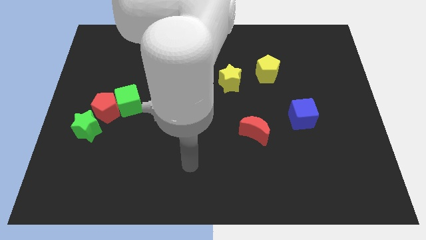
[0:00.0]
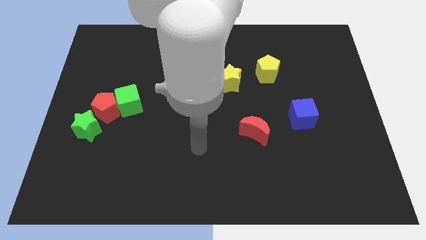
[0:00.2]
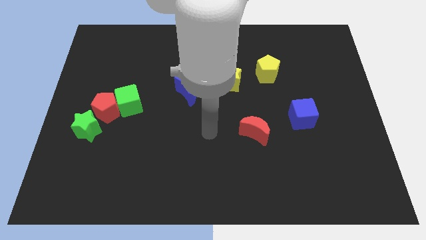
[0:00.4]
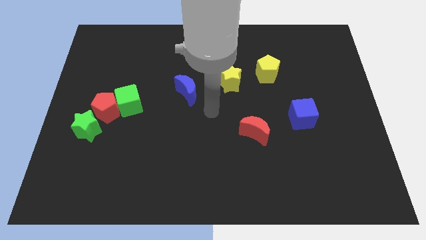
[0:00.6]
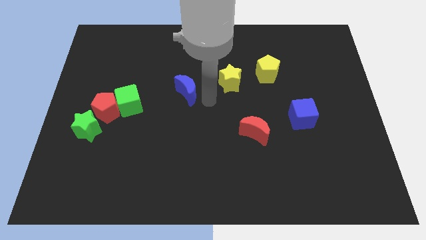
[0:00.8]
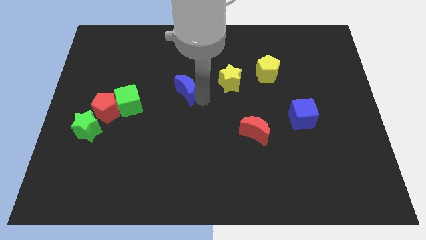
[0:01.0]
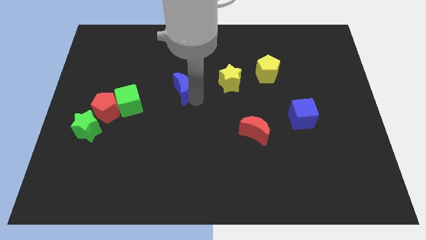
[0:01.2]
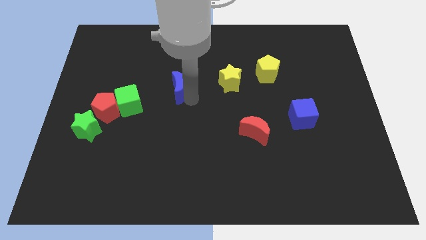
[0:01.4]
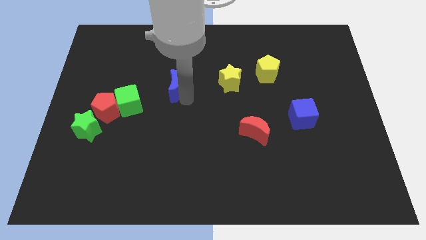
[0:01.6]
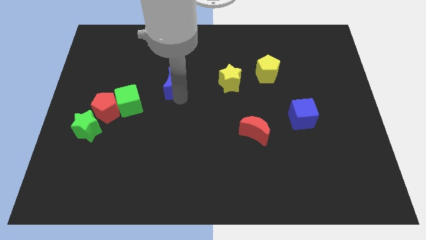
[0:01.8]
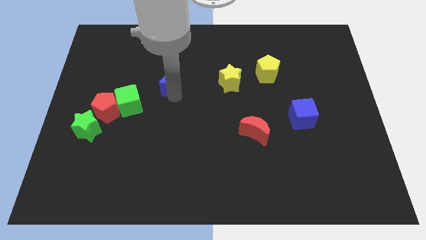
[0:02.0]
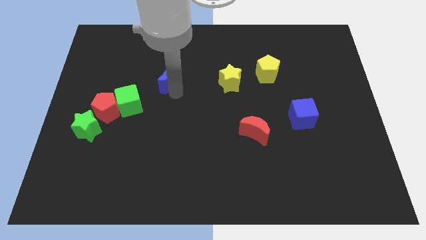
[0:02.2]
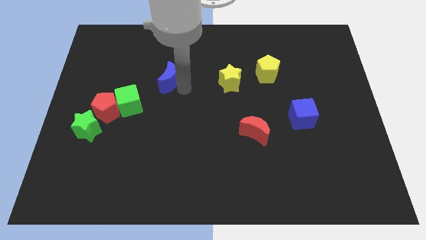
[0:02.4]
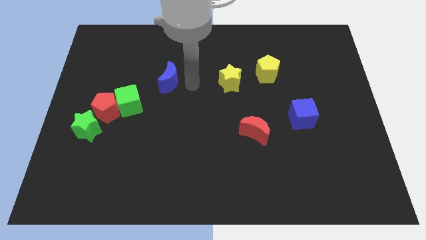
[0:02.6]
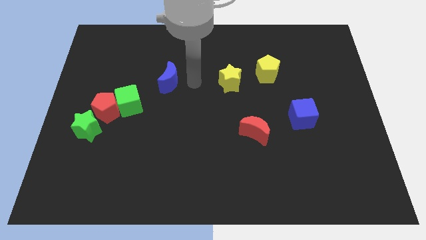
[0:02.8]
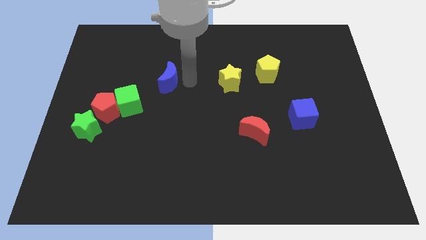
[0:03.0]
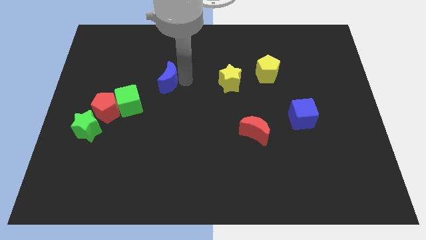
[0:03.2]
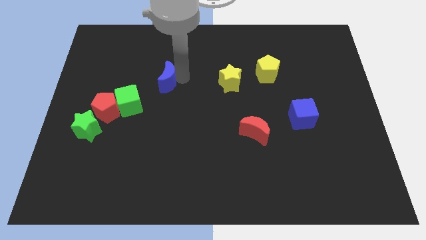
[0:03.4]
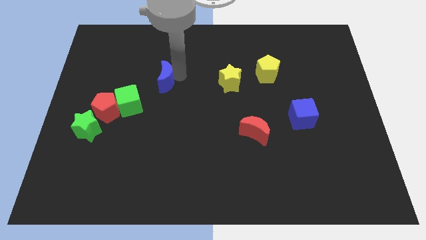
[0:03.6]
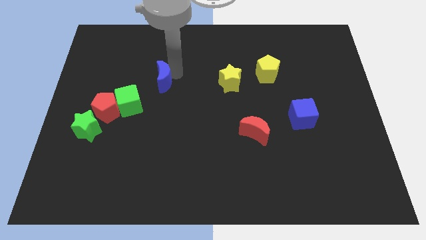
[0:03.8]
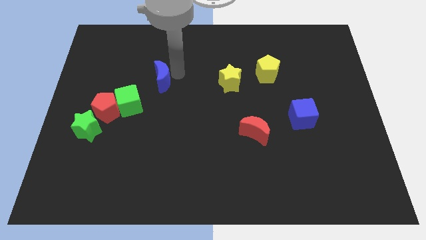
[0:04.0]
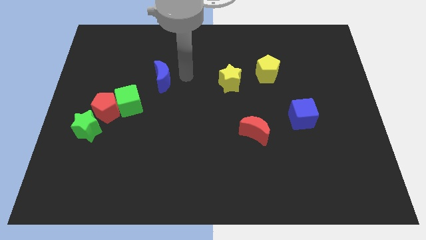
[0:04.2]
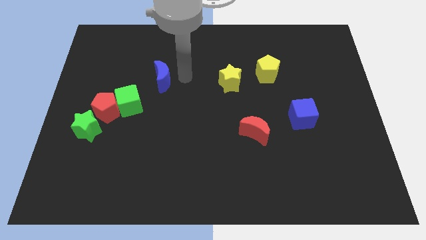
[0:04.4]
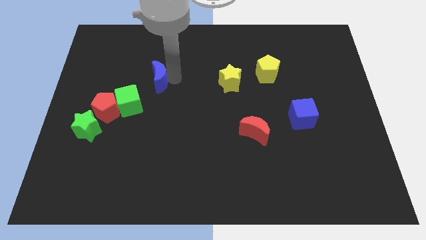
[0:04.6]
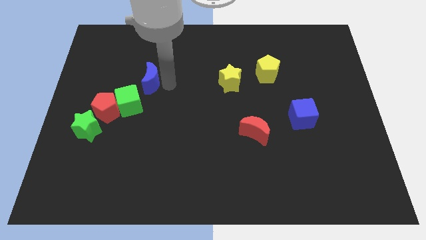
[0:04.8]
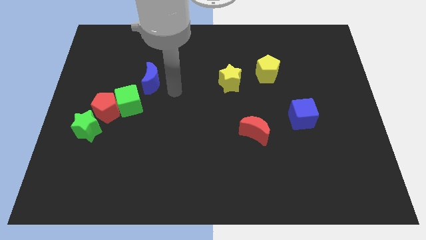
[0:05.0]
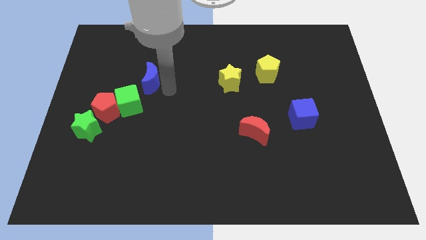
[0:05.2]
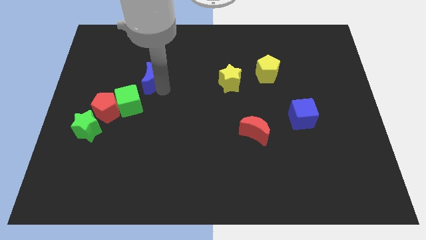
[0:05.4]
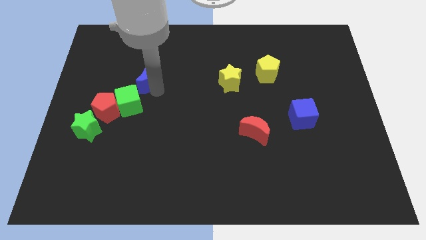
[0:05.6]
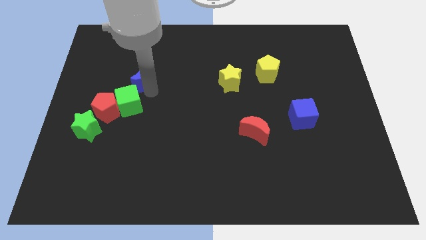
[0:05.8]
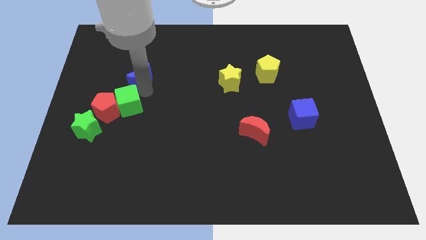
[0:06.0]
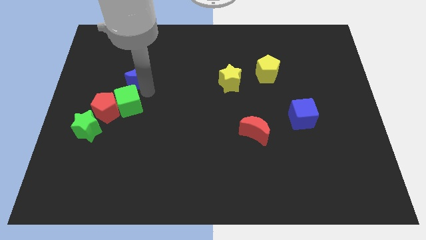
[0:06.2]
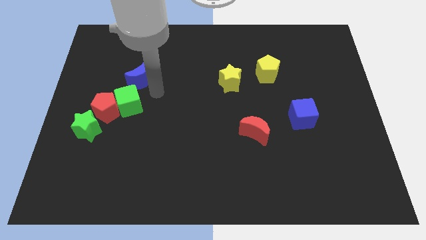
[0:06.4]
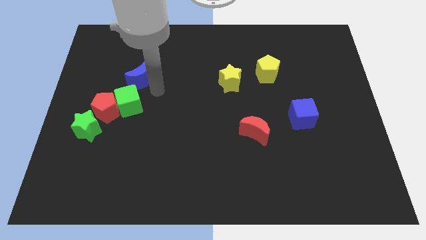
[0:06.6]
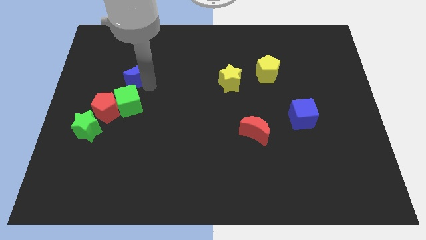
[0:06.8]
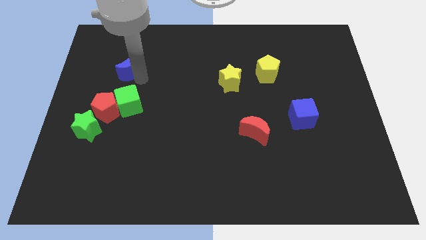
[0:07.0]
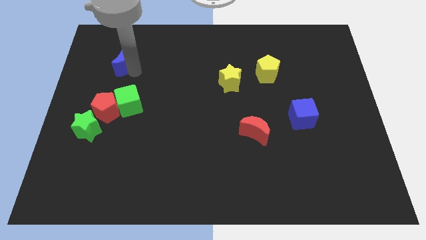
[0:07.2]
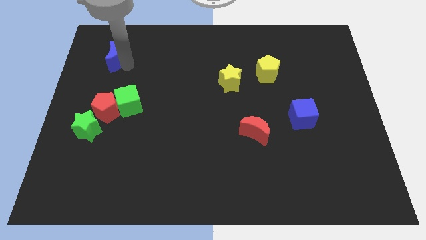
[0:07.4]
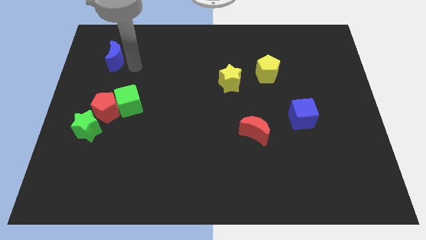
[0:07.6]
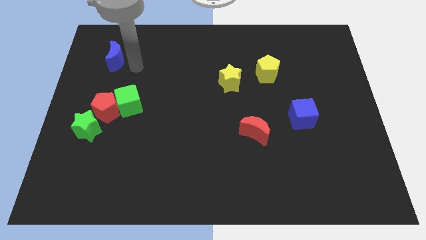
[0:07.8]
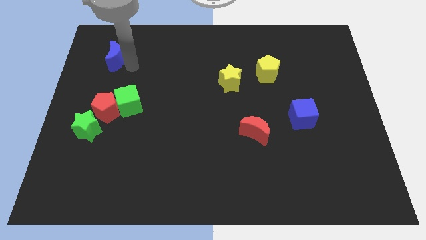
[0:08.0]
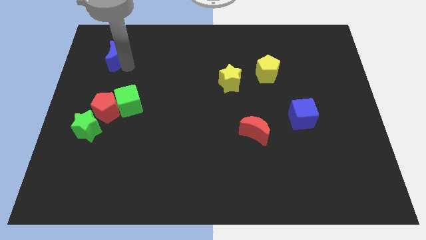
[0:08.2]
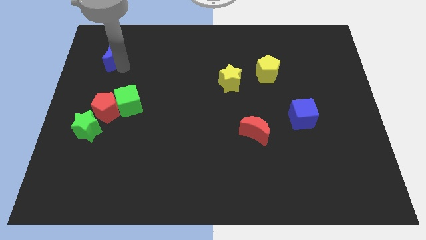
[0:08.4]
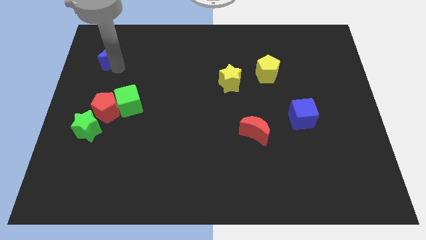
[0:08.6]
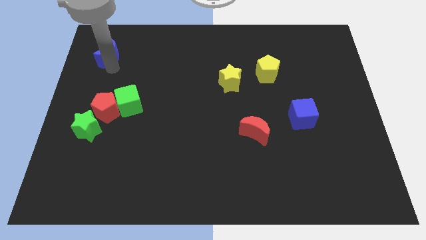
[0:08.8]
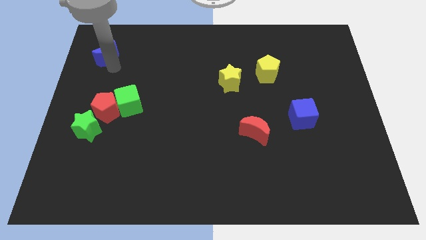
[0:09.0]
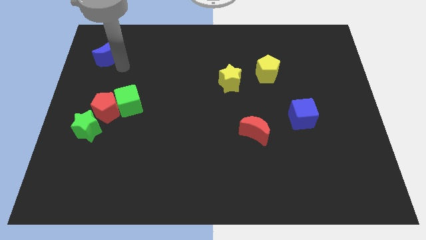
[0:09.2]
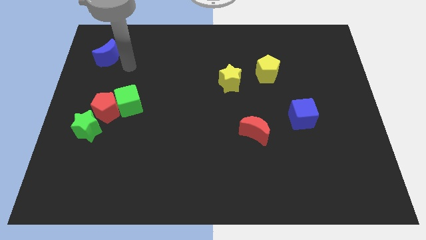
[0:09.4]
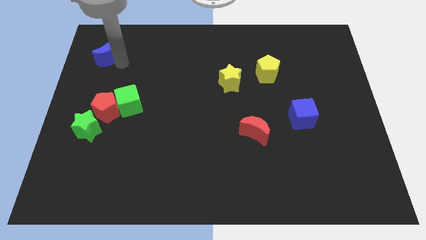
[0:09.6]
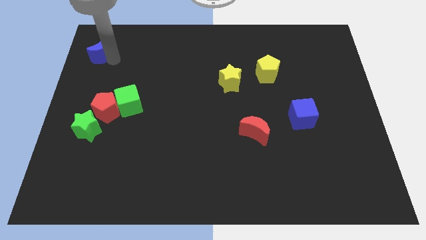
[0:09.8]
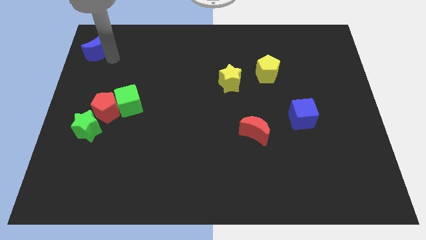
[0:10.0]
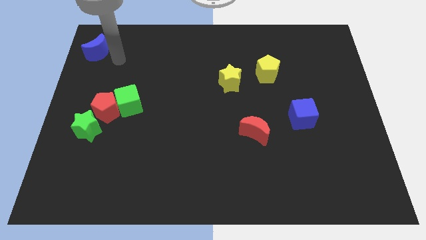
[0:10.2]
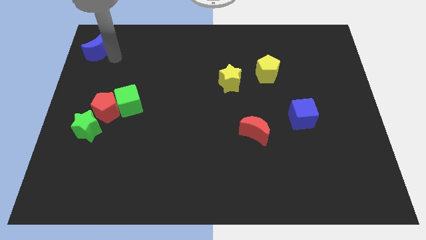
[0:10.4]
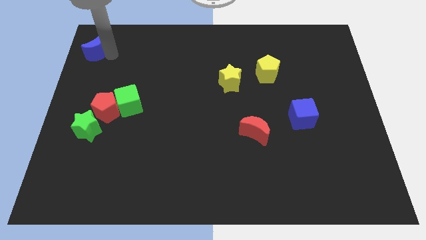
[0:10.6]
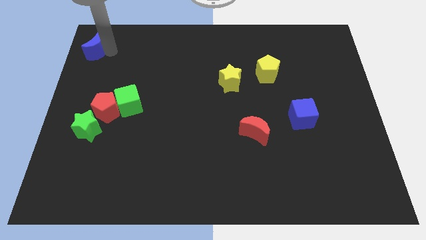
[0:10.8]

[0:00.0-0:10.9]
move the blue moon to the top left corner

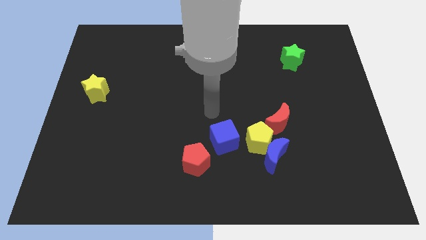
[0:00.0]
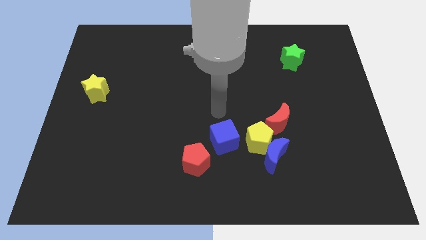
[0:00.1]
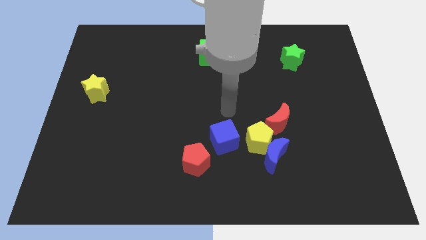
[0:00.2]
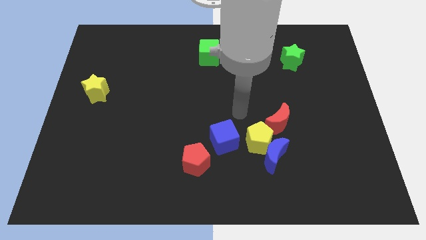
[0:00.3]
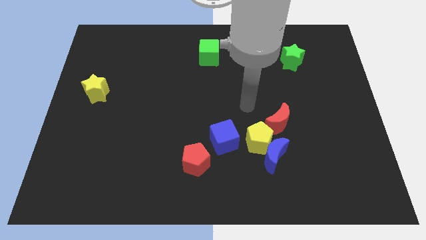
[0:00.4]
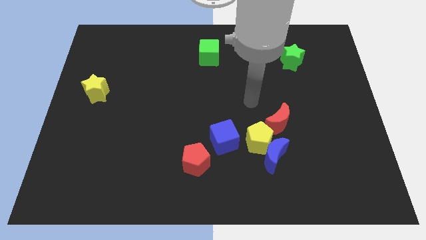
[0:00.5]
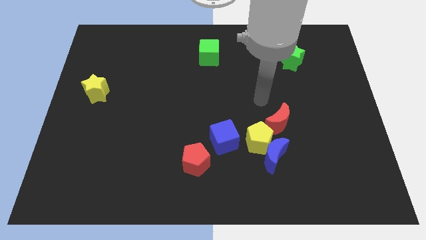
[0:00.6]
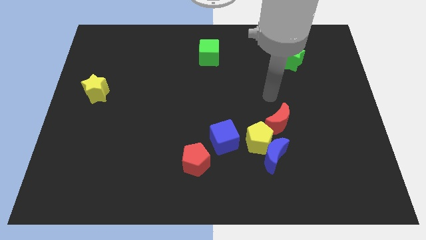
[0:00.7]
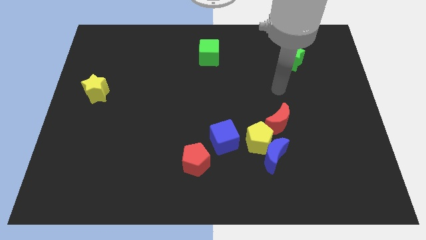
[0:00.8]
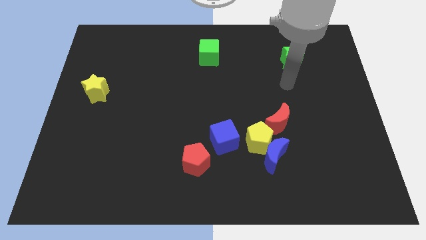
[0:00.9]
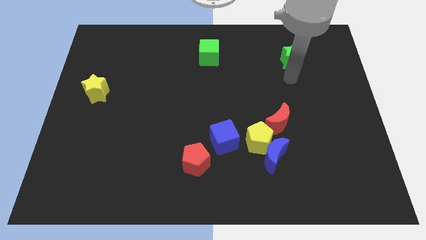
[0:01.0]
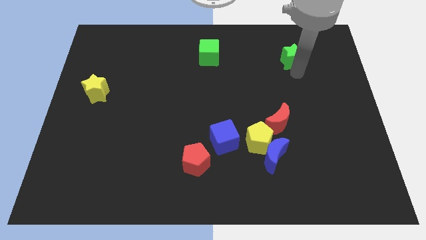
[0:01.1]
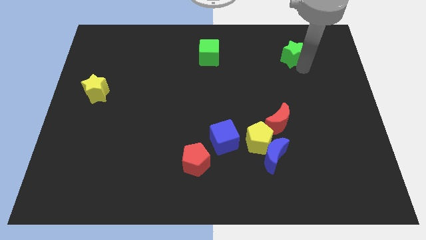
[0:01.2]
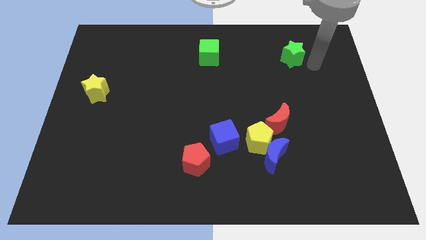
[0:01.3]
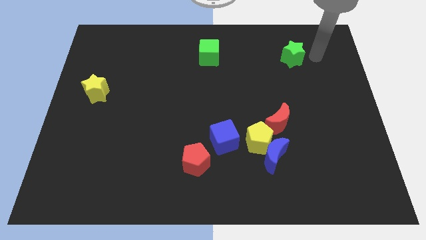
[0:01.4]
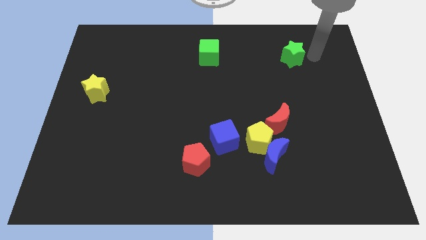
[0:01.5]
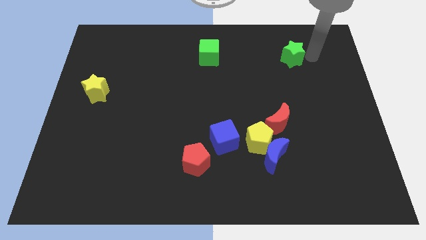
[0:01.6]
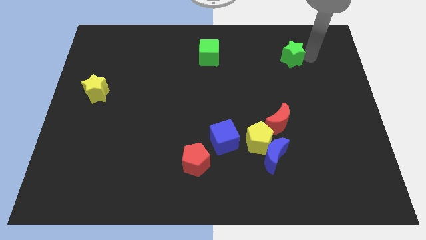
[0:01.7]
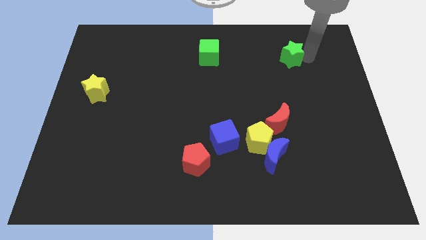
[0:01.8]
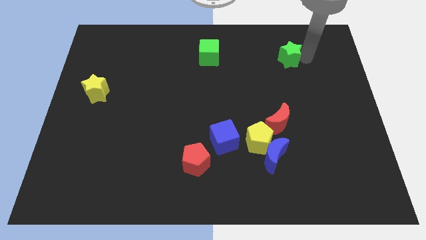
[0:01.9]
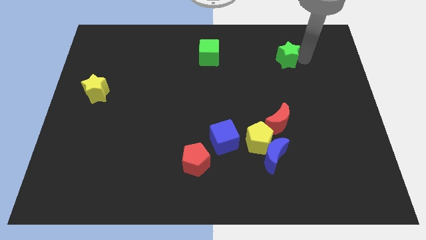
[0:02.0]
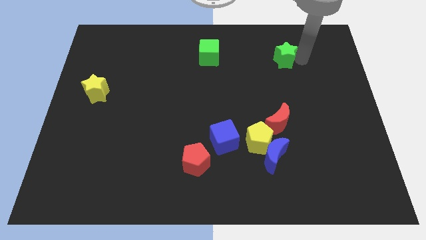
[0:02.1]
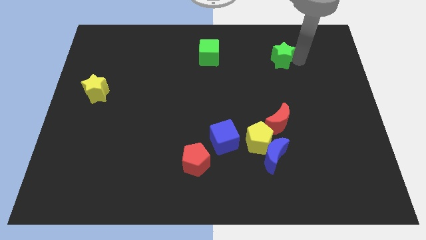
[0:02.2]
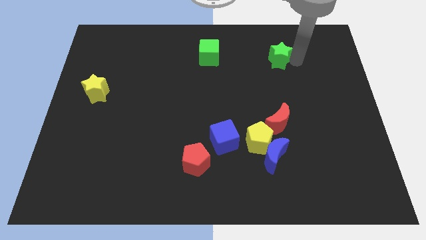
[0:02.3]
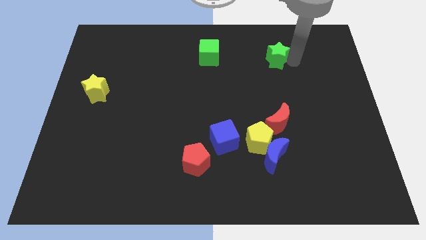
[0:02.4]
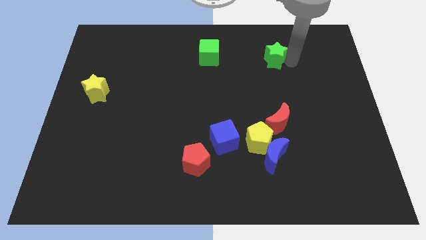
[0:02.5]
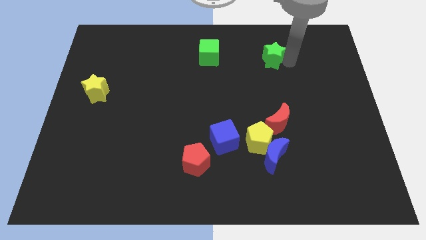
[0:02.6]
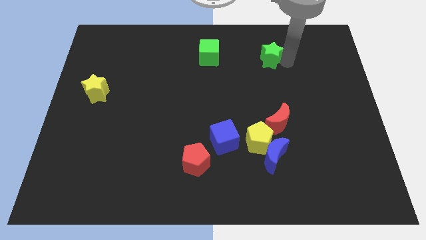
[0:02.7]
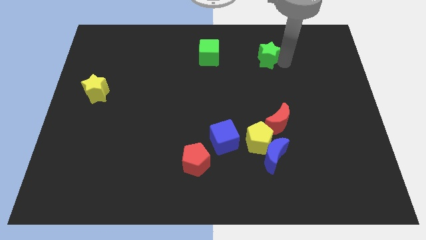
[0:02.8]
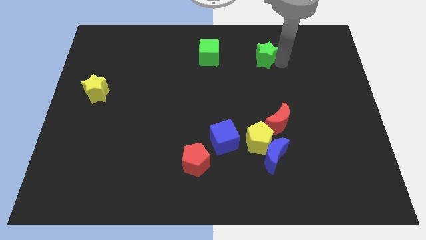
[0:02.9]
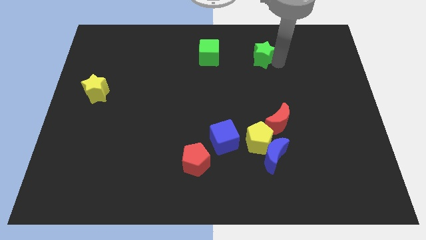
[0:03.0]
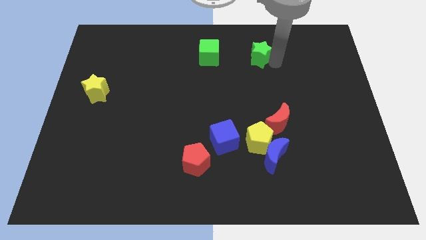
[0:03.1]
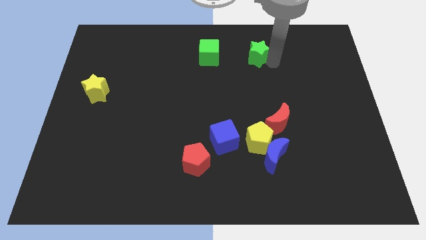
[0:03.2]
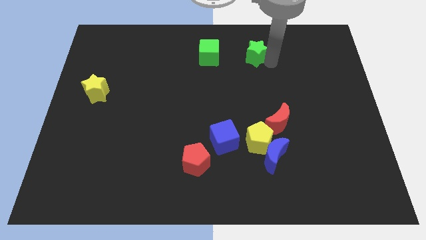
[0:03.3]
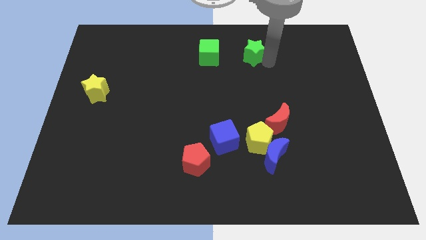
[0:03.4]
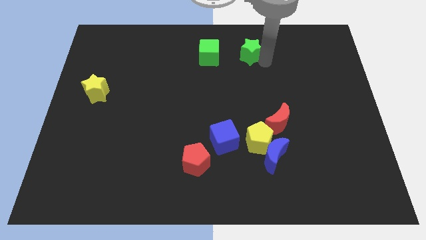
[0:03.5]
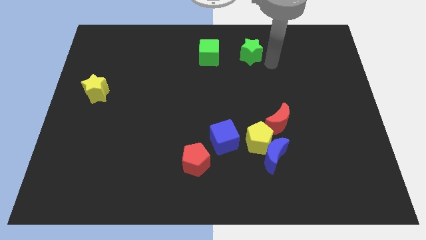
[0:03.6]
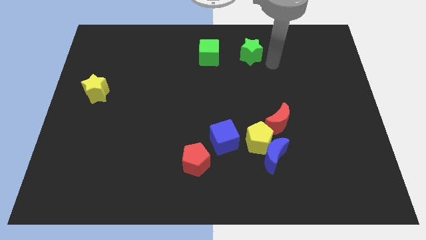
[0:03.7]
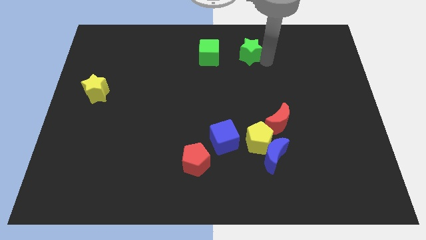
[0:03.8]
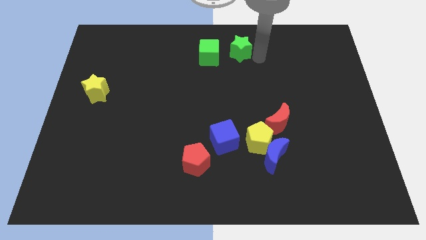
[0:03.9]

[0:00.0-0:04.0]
slide the green star to the towards your base
